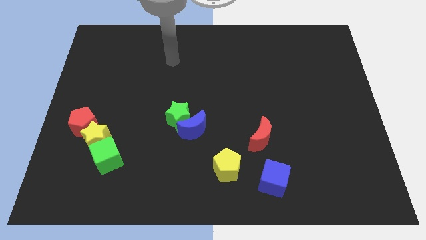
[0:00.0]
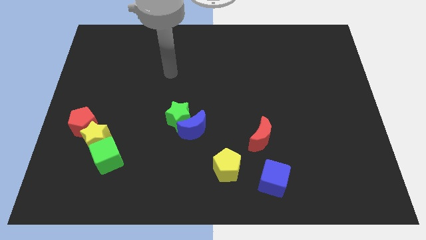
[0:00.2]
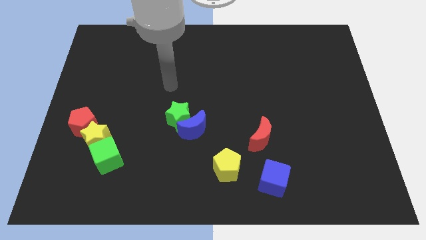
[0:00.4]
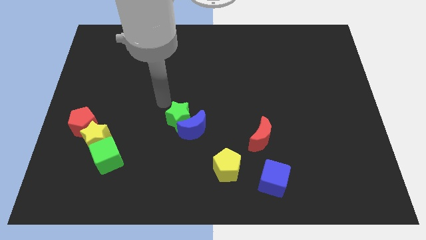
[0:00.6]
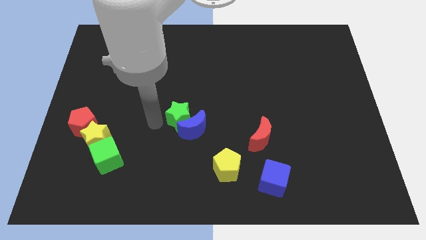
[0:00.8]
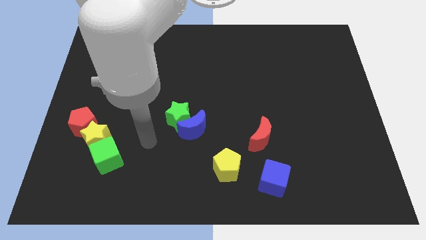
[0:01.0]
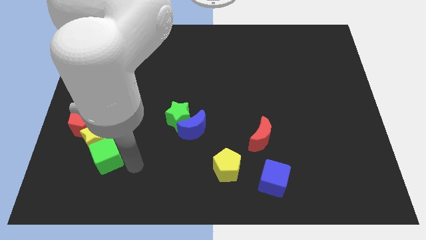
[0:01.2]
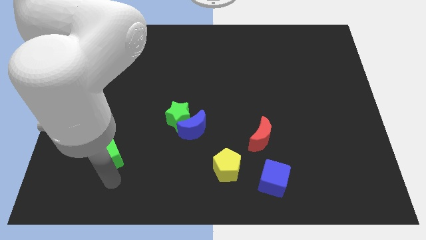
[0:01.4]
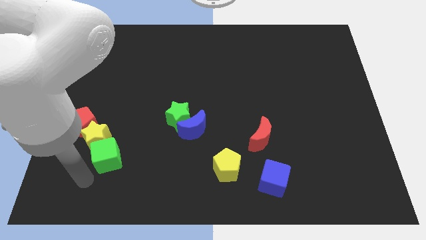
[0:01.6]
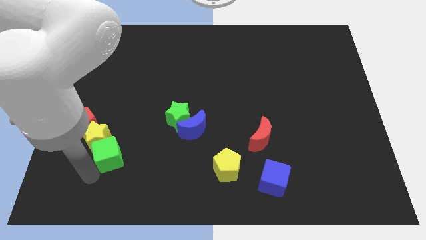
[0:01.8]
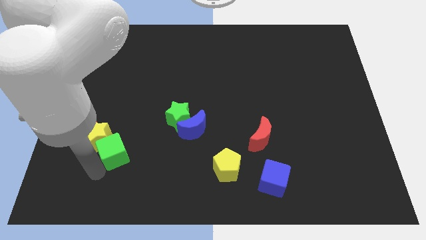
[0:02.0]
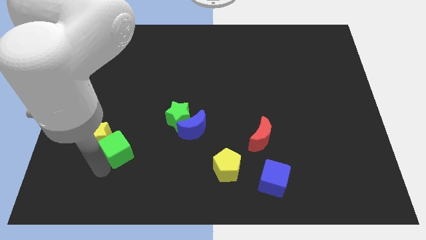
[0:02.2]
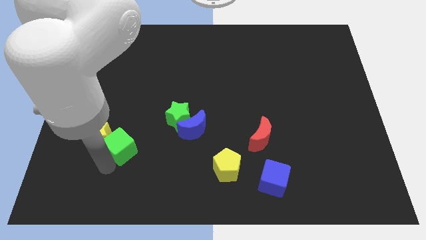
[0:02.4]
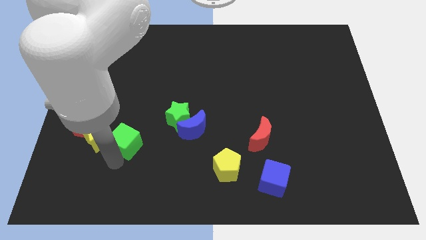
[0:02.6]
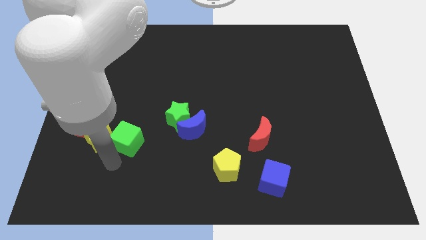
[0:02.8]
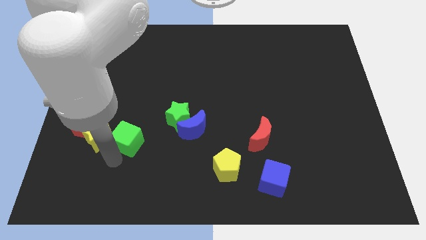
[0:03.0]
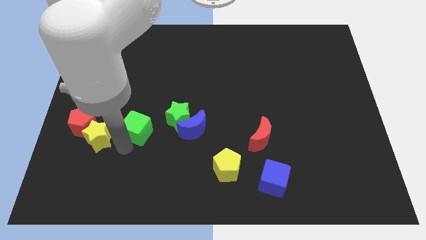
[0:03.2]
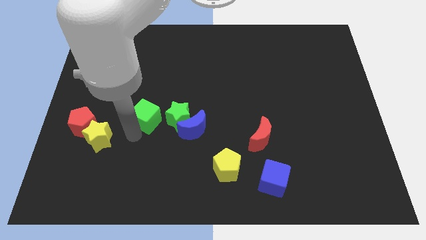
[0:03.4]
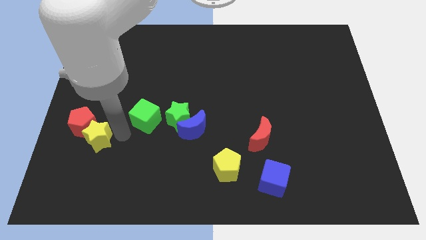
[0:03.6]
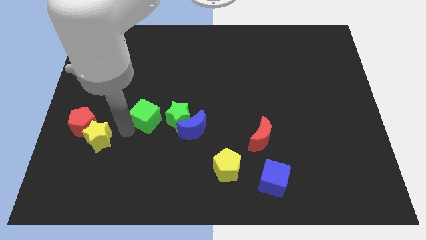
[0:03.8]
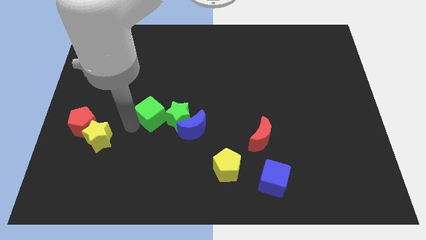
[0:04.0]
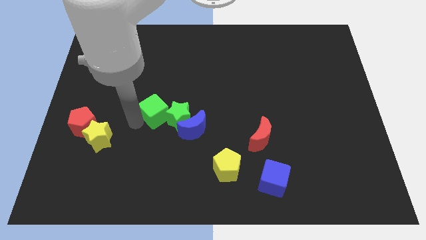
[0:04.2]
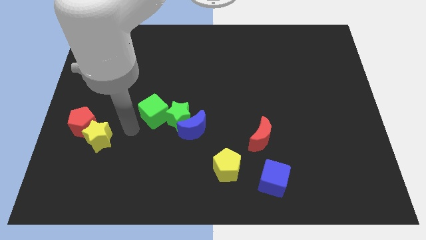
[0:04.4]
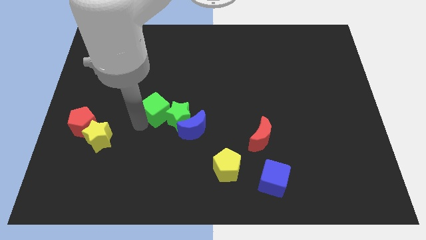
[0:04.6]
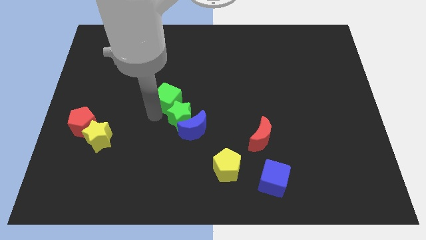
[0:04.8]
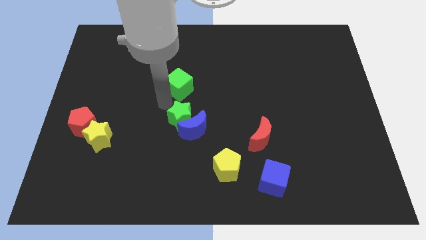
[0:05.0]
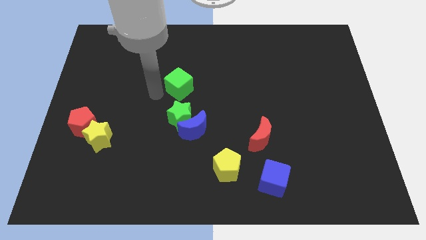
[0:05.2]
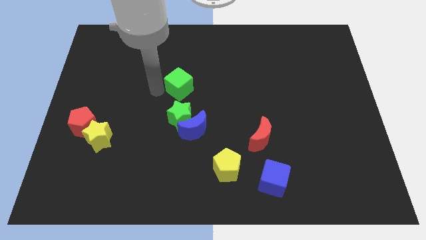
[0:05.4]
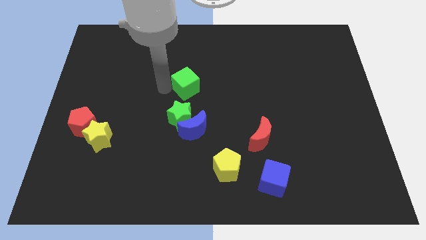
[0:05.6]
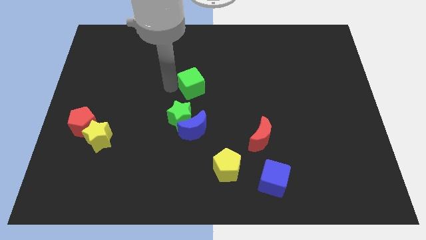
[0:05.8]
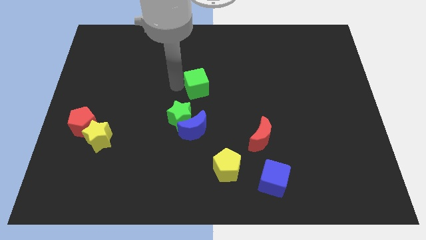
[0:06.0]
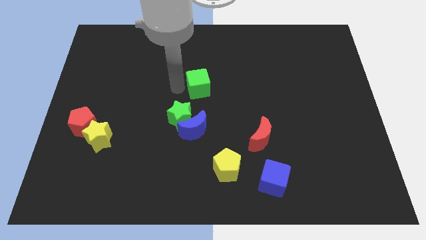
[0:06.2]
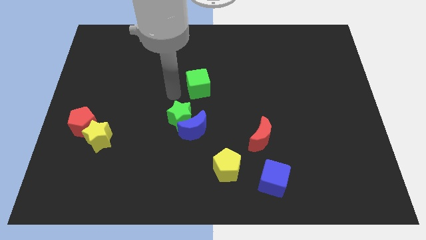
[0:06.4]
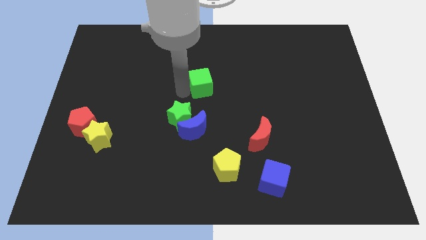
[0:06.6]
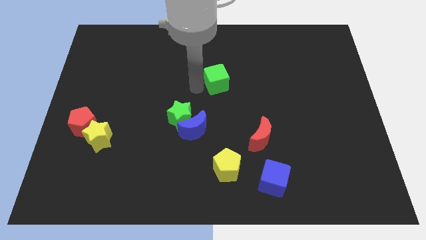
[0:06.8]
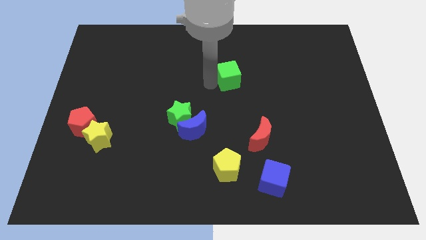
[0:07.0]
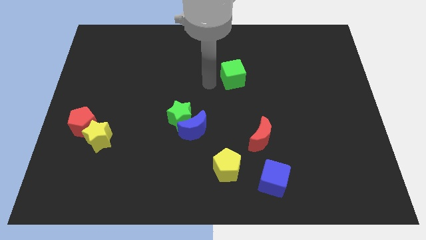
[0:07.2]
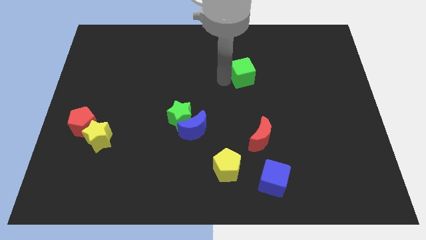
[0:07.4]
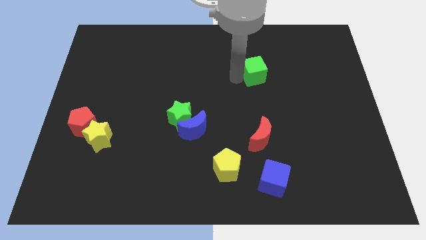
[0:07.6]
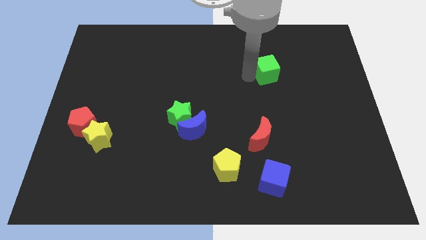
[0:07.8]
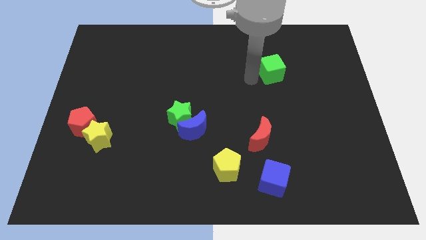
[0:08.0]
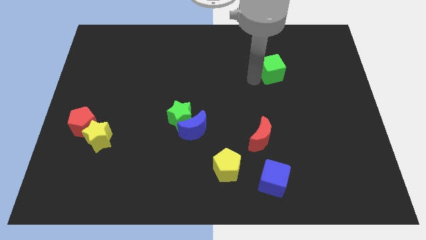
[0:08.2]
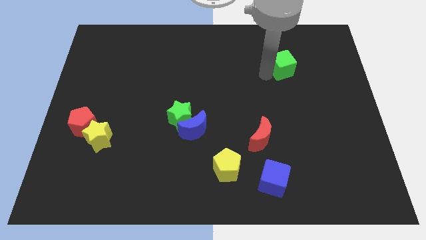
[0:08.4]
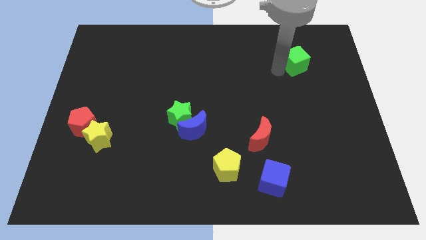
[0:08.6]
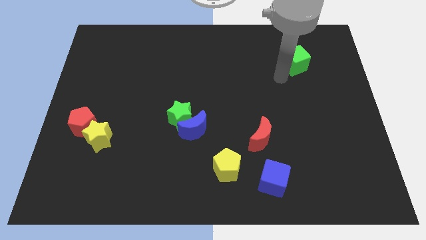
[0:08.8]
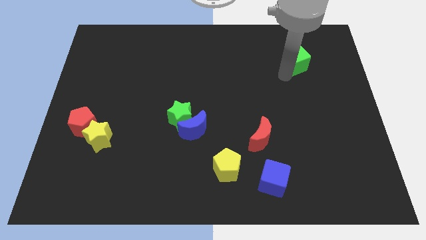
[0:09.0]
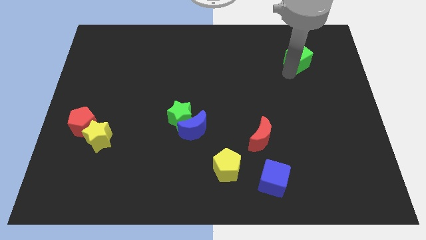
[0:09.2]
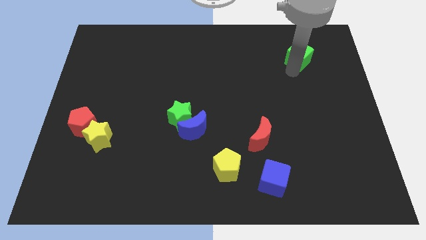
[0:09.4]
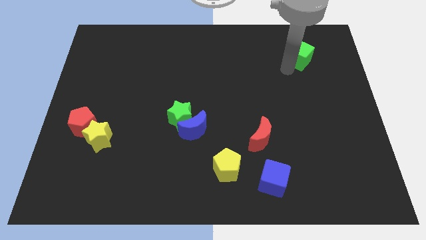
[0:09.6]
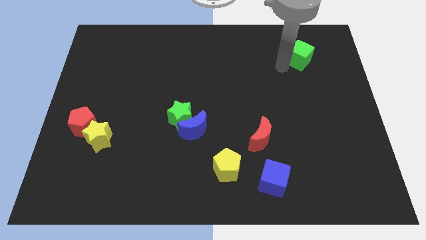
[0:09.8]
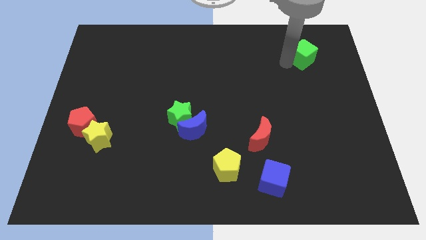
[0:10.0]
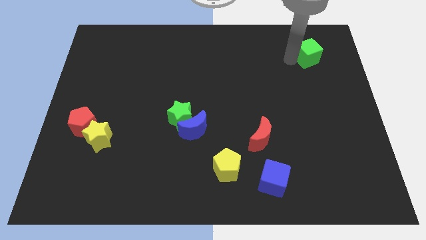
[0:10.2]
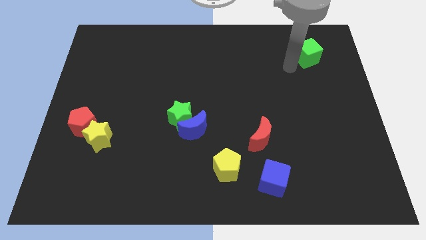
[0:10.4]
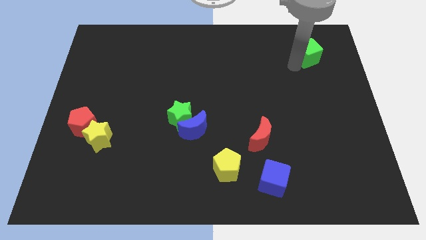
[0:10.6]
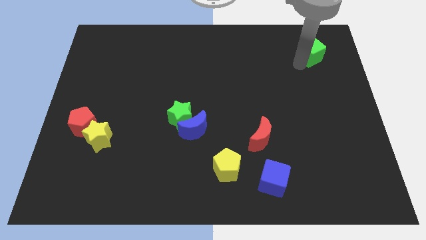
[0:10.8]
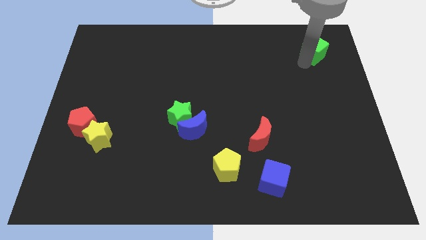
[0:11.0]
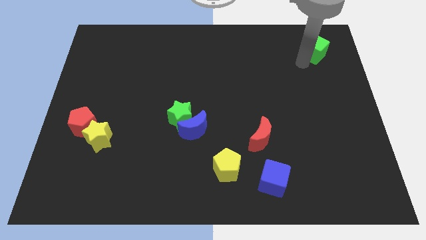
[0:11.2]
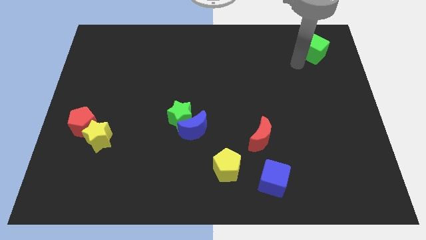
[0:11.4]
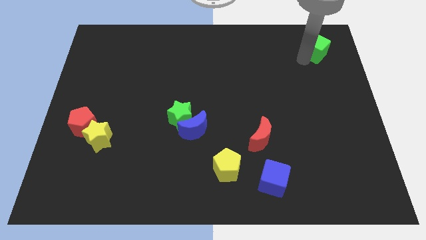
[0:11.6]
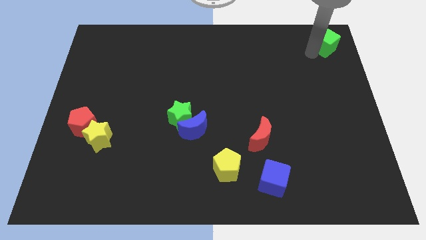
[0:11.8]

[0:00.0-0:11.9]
push the green cube to the upper right corner
